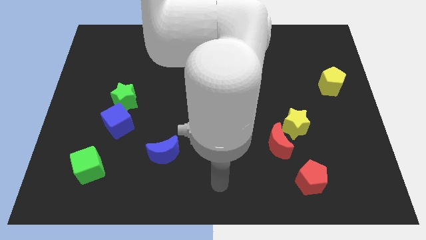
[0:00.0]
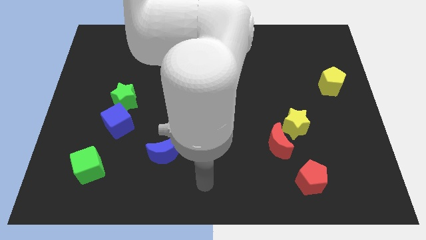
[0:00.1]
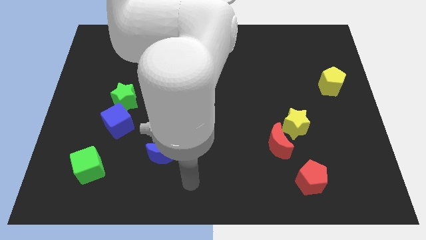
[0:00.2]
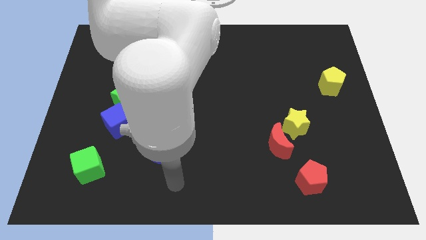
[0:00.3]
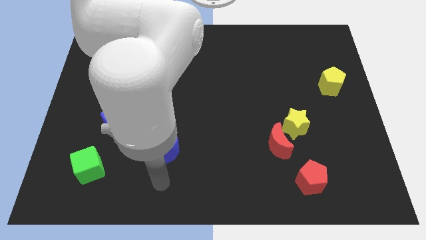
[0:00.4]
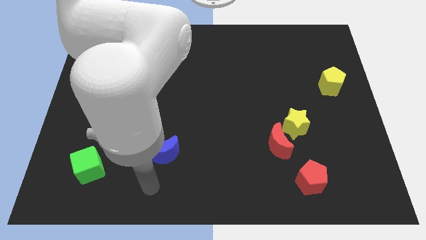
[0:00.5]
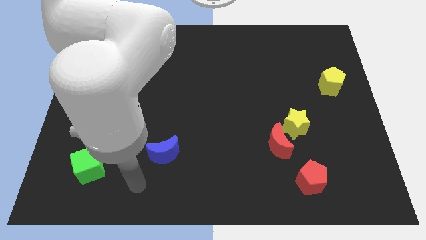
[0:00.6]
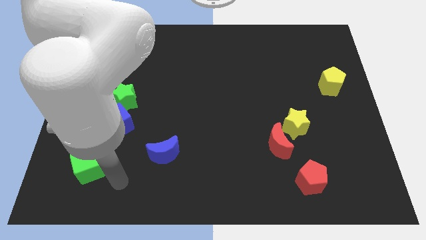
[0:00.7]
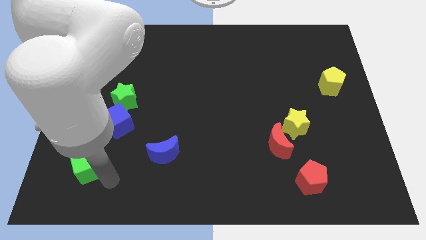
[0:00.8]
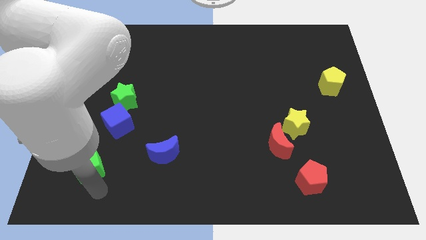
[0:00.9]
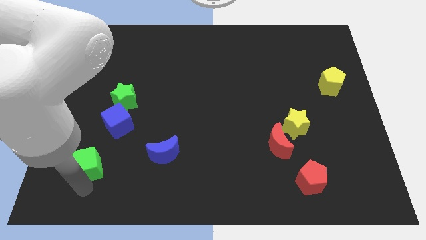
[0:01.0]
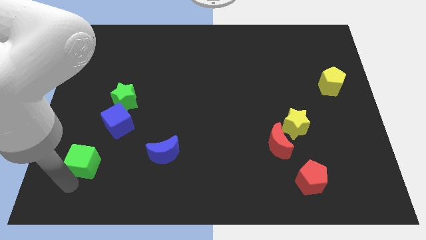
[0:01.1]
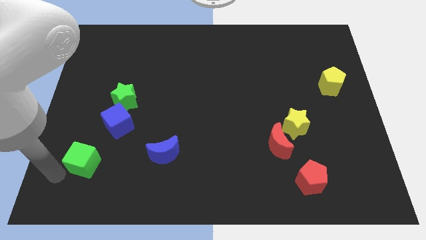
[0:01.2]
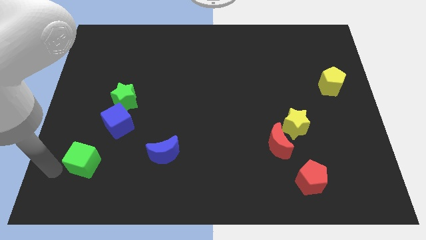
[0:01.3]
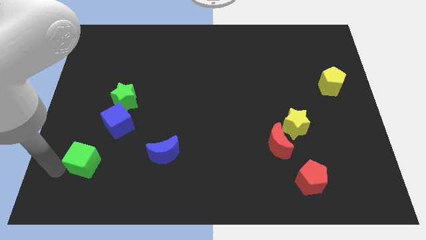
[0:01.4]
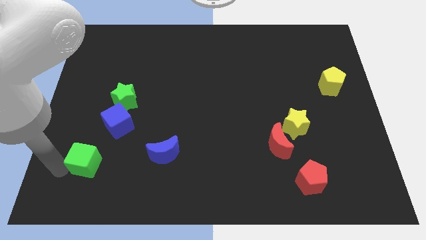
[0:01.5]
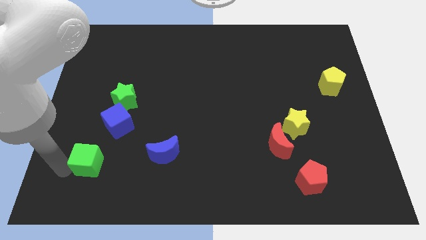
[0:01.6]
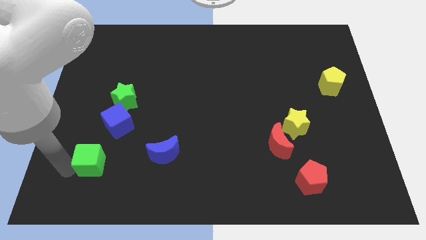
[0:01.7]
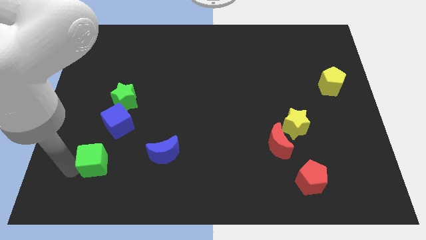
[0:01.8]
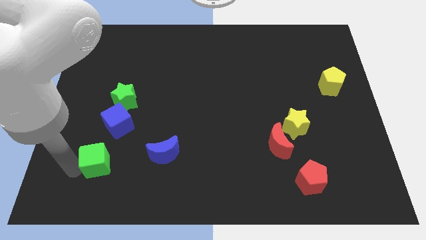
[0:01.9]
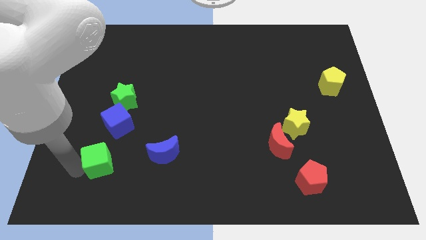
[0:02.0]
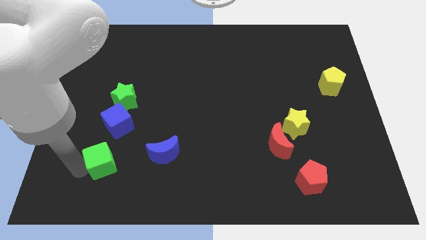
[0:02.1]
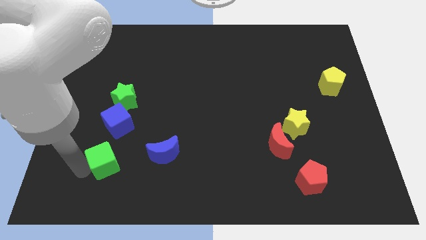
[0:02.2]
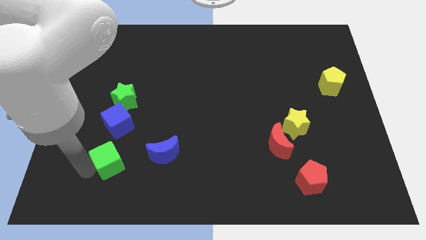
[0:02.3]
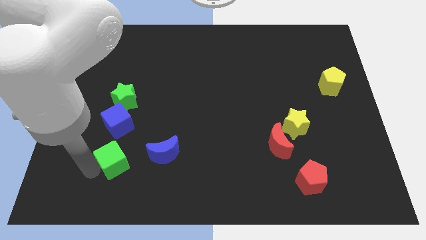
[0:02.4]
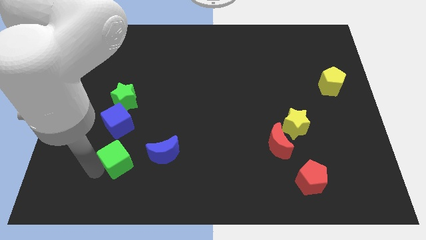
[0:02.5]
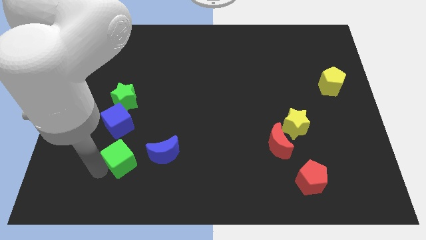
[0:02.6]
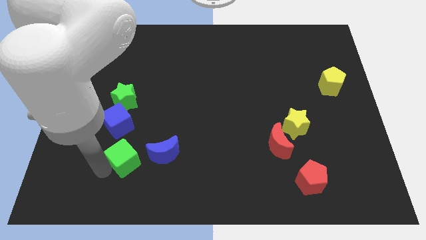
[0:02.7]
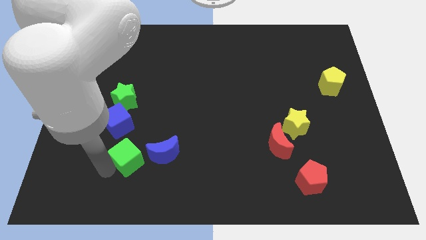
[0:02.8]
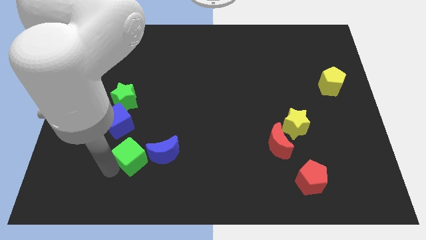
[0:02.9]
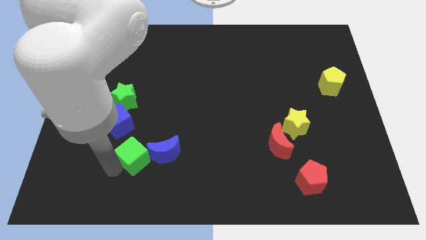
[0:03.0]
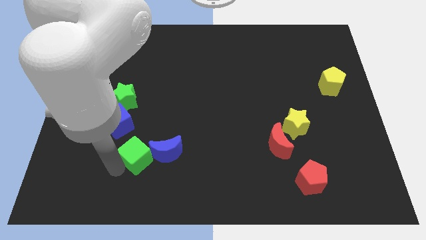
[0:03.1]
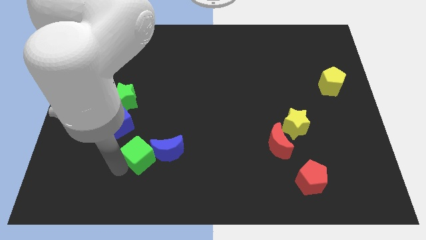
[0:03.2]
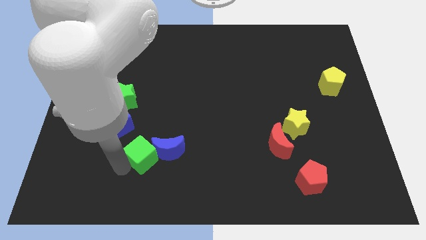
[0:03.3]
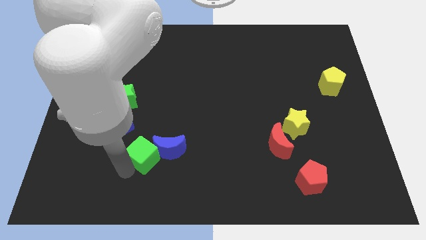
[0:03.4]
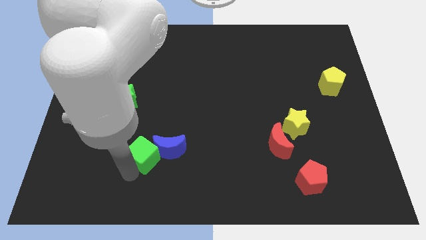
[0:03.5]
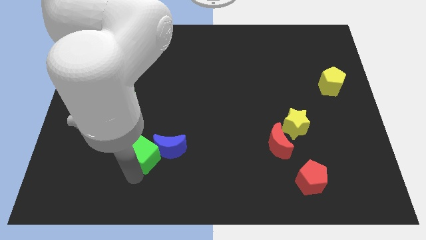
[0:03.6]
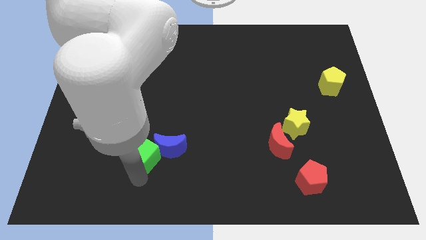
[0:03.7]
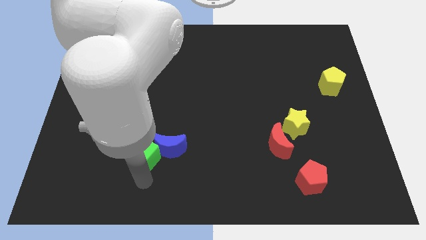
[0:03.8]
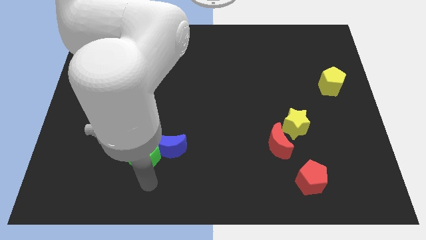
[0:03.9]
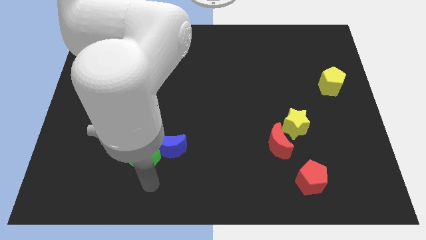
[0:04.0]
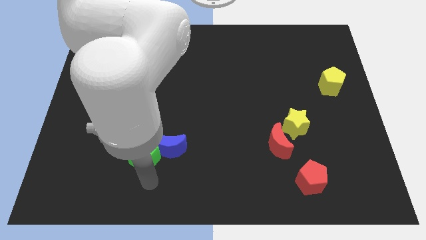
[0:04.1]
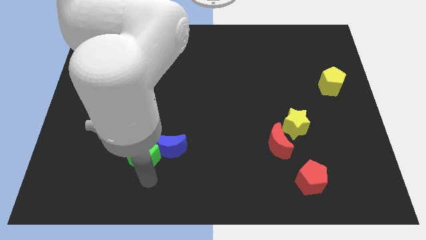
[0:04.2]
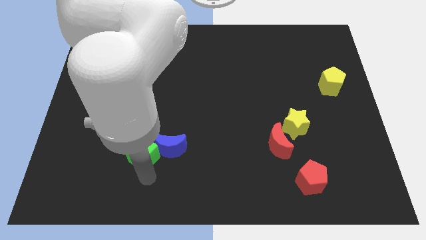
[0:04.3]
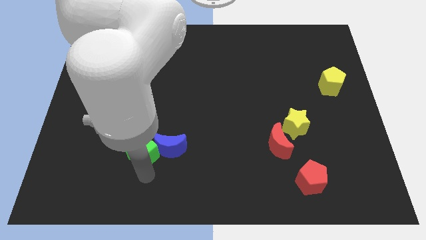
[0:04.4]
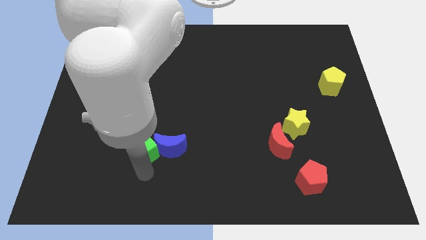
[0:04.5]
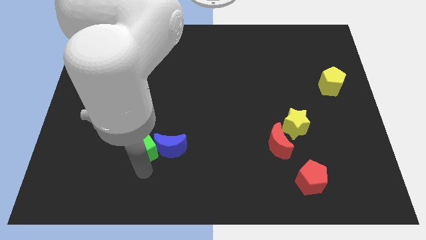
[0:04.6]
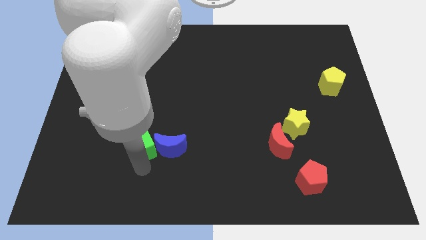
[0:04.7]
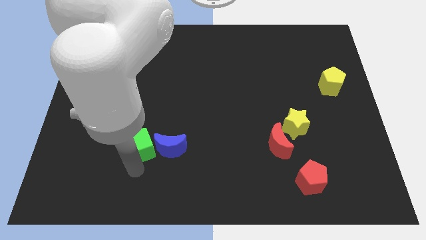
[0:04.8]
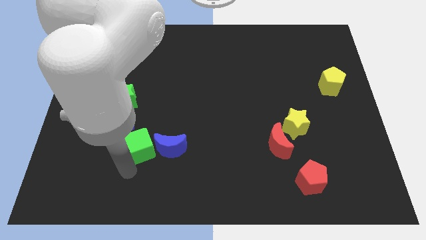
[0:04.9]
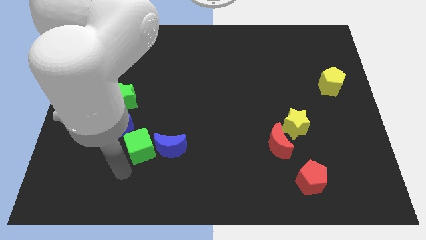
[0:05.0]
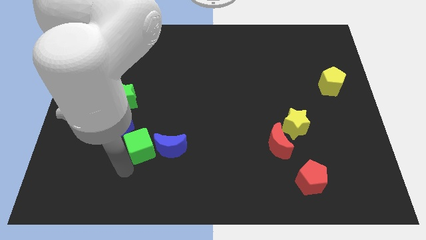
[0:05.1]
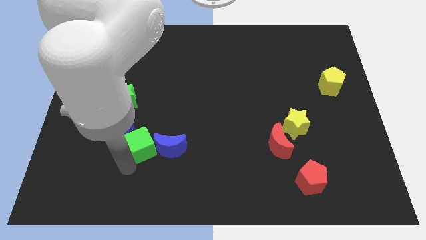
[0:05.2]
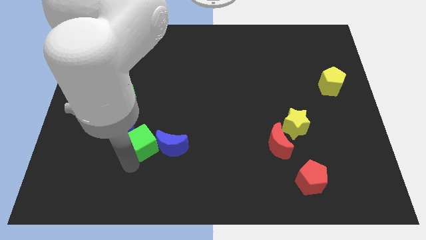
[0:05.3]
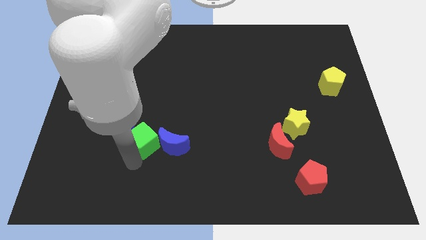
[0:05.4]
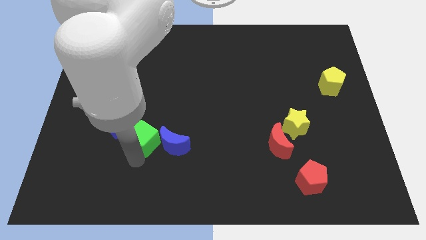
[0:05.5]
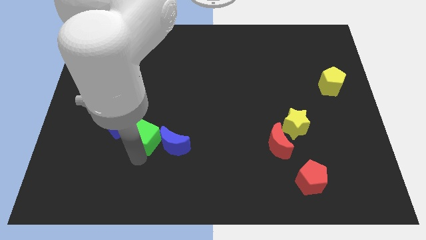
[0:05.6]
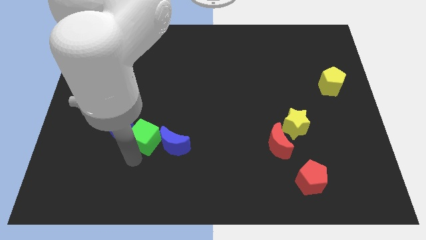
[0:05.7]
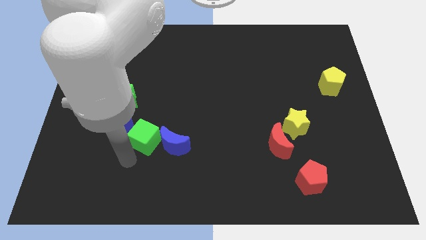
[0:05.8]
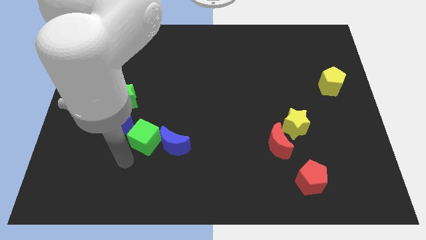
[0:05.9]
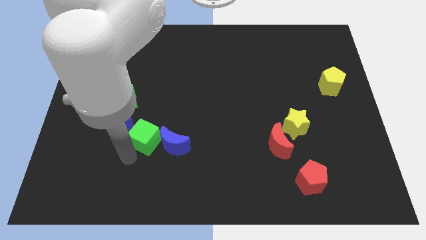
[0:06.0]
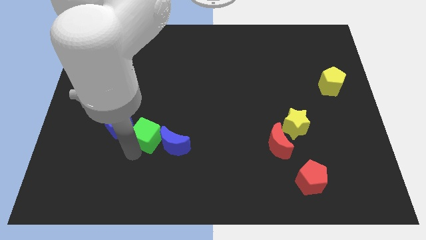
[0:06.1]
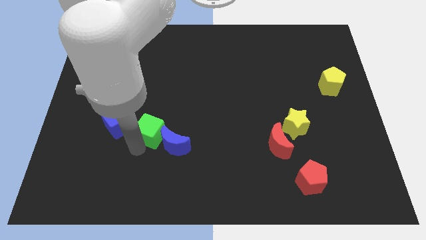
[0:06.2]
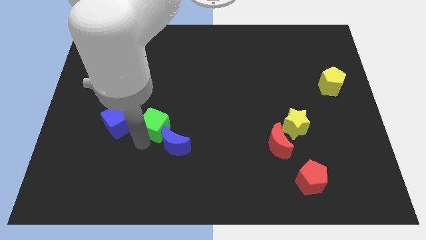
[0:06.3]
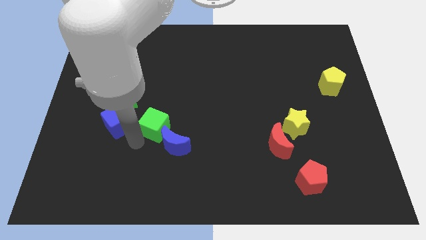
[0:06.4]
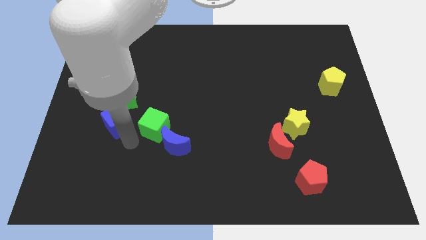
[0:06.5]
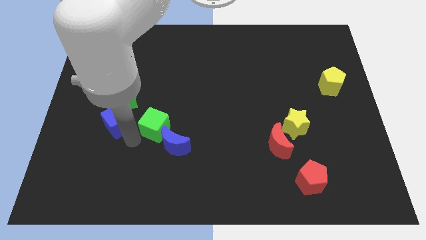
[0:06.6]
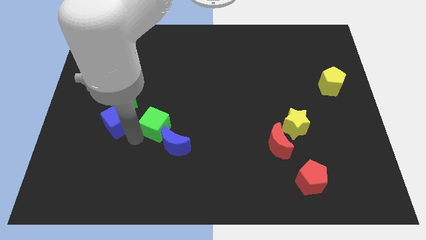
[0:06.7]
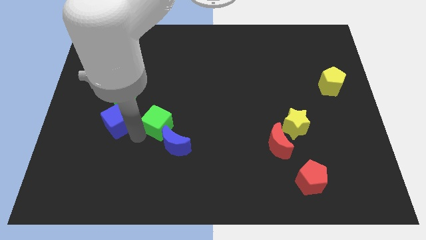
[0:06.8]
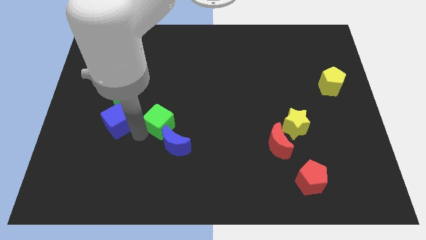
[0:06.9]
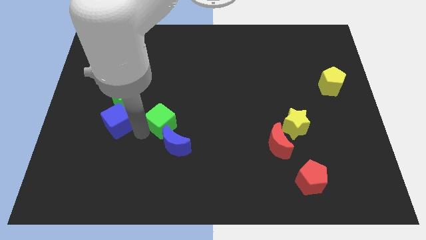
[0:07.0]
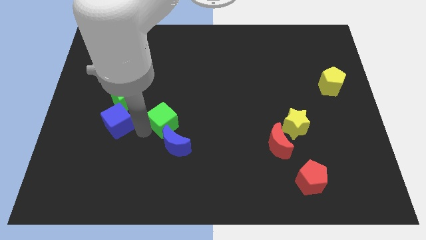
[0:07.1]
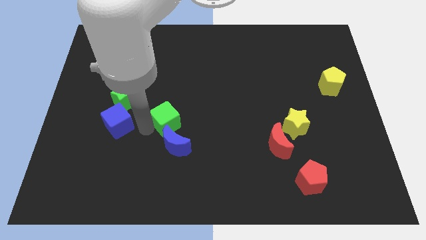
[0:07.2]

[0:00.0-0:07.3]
put the green cube to the middle of the board
